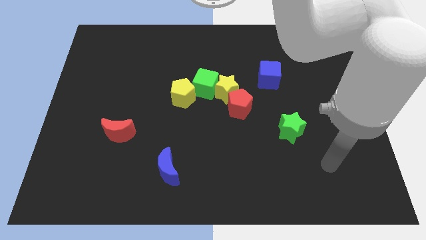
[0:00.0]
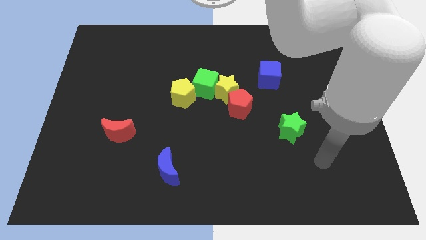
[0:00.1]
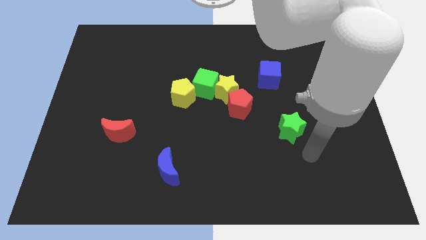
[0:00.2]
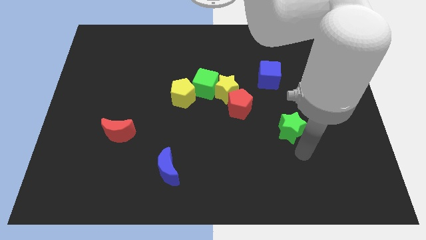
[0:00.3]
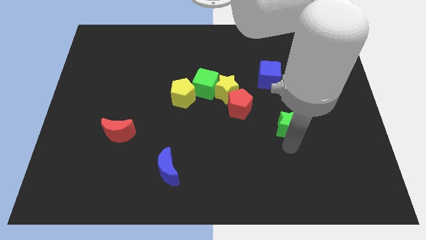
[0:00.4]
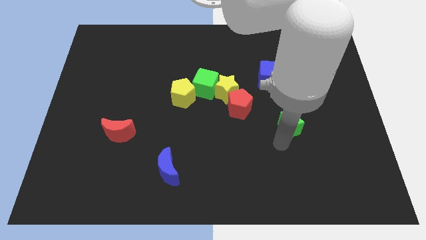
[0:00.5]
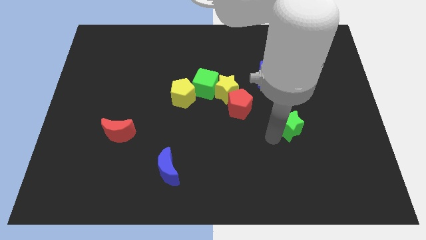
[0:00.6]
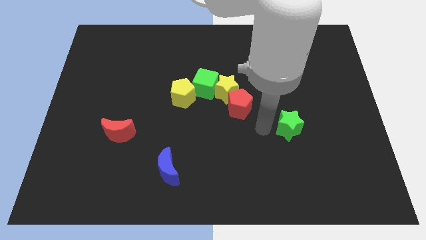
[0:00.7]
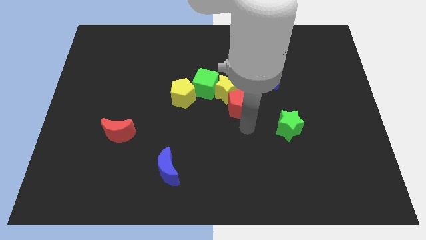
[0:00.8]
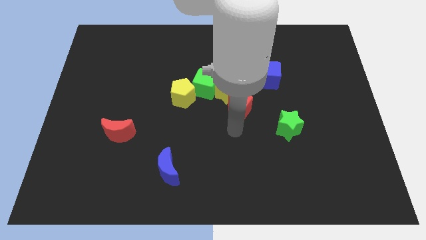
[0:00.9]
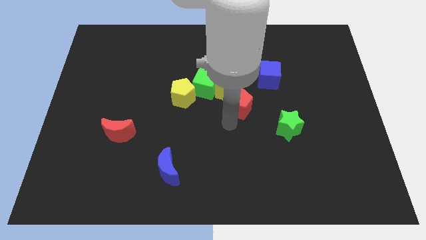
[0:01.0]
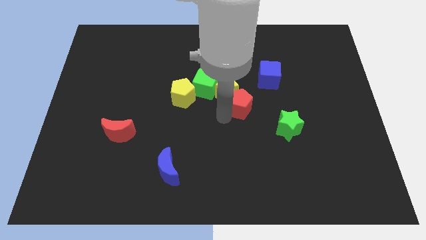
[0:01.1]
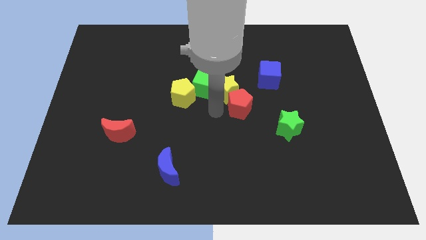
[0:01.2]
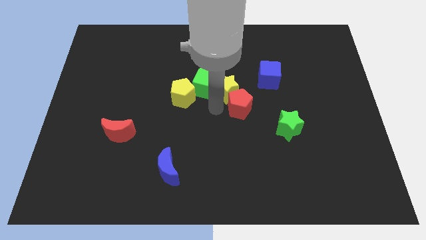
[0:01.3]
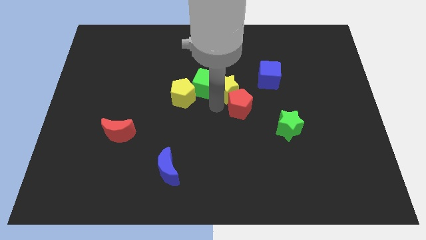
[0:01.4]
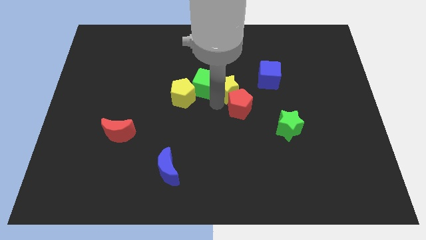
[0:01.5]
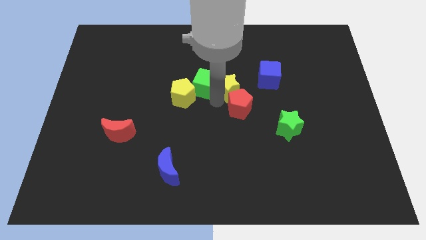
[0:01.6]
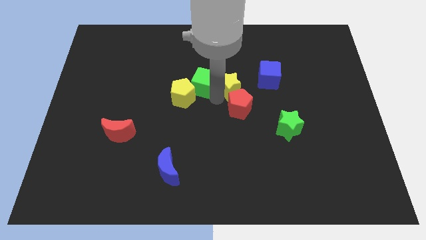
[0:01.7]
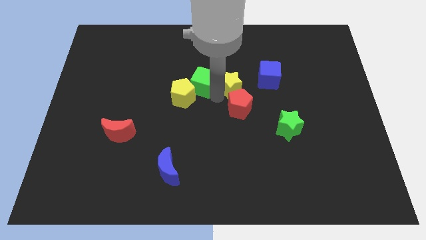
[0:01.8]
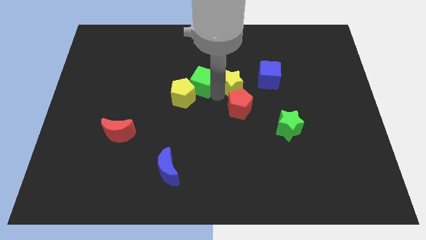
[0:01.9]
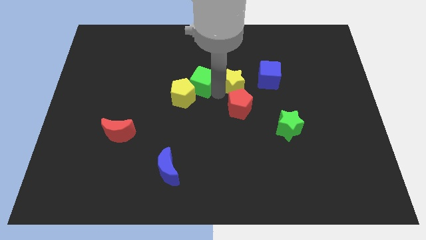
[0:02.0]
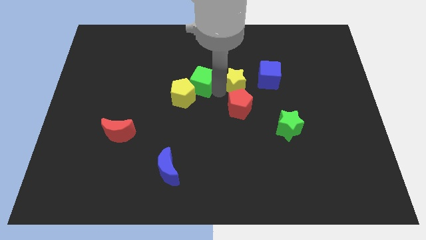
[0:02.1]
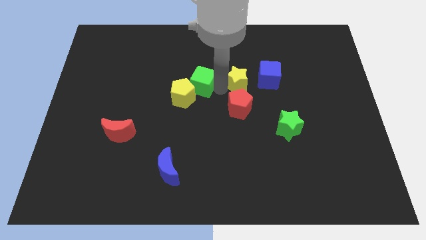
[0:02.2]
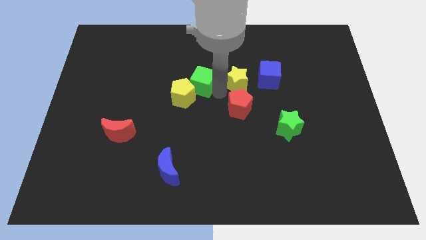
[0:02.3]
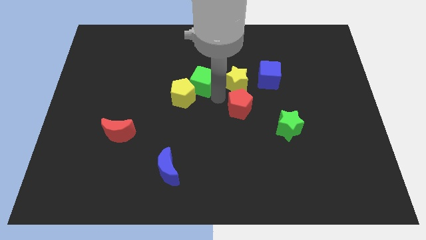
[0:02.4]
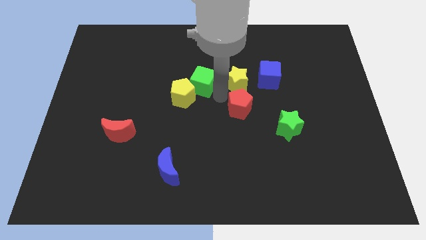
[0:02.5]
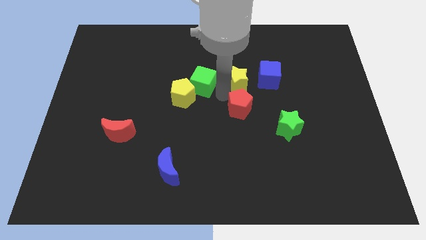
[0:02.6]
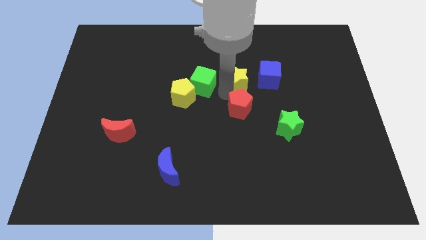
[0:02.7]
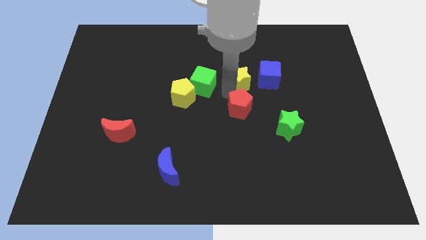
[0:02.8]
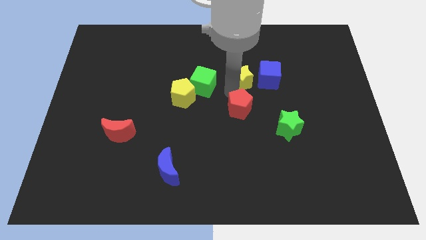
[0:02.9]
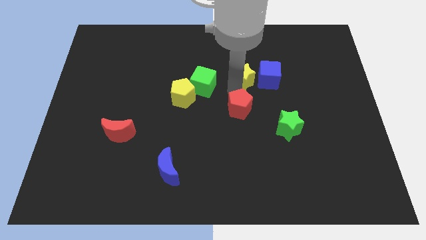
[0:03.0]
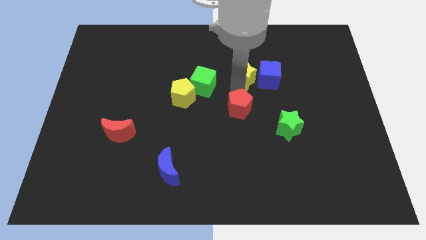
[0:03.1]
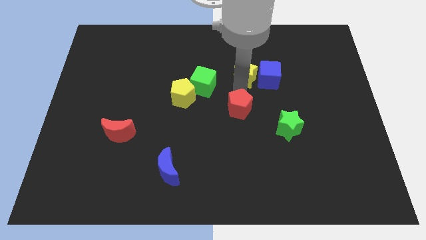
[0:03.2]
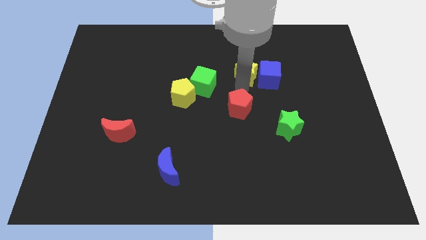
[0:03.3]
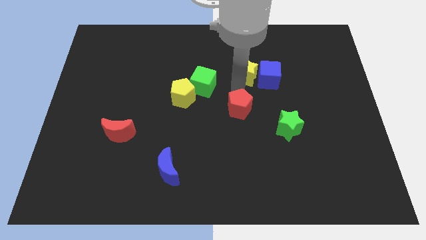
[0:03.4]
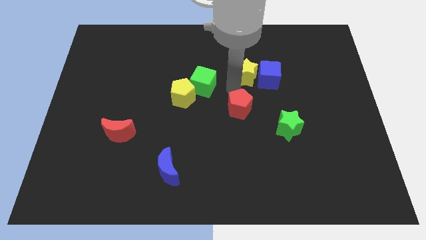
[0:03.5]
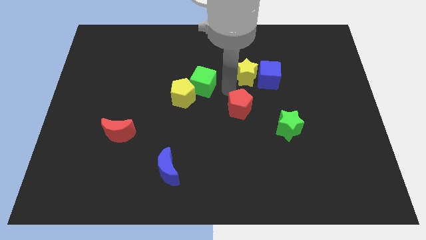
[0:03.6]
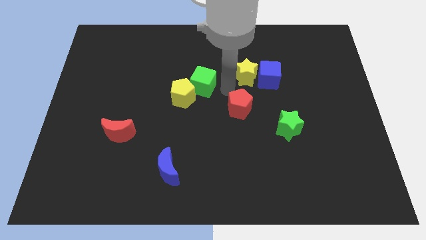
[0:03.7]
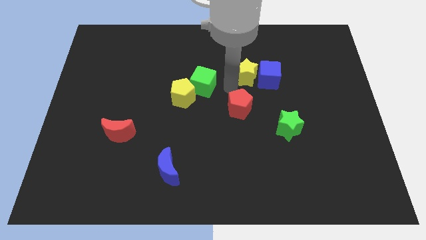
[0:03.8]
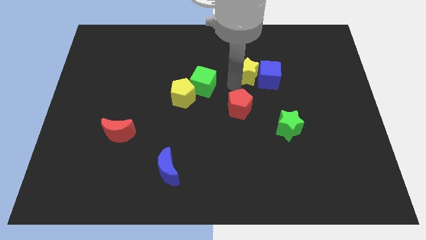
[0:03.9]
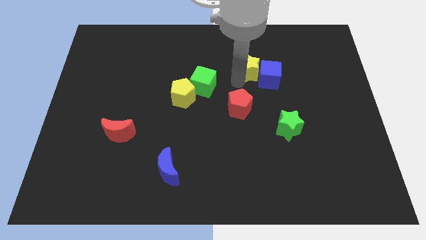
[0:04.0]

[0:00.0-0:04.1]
pull the yellow star apart from the green cube and red pentagon

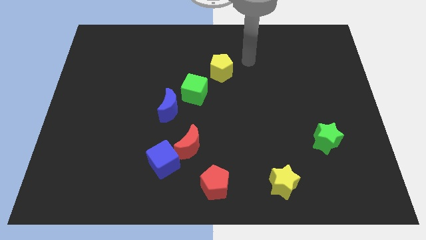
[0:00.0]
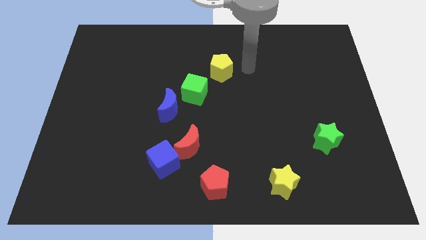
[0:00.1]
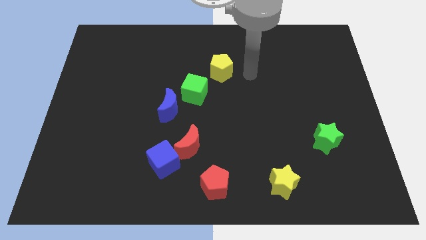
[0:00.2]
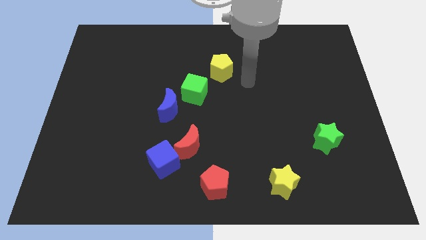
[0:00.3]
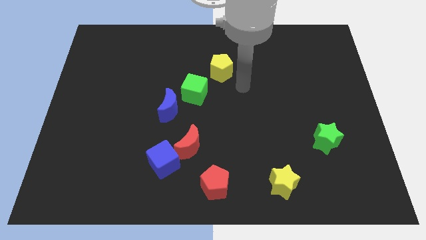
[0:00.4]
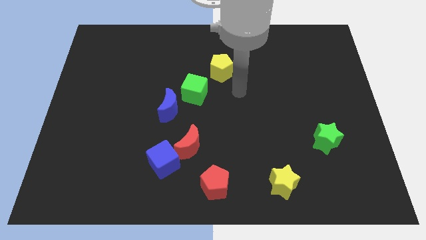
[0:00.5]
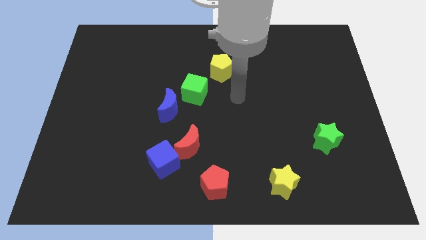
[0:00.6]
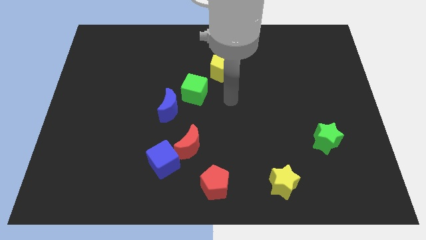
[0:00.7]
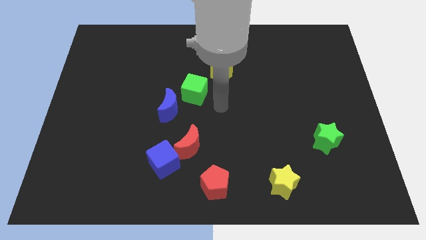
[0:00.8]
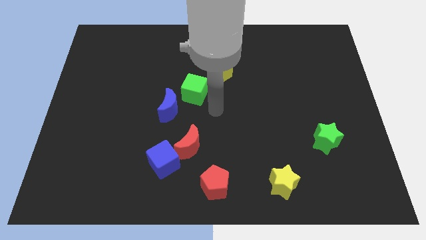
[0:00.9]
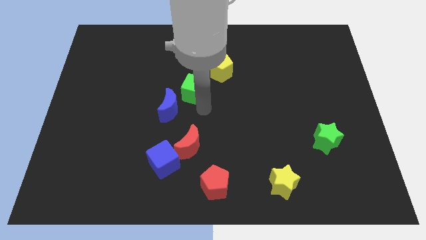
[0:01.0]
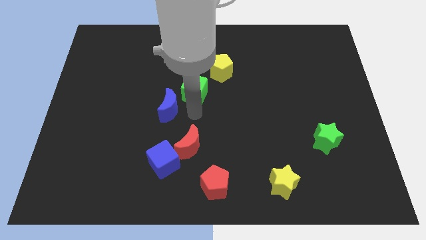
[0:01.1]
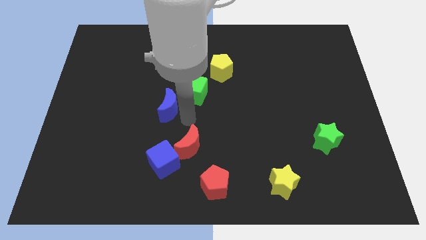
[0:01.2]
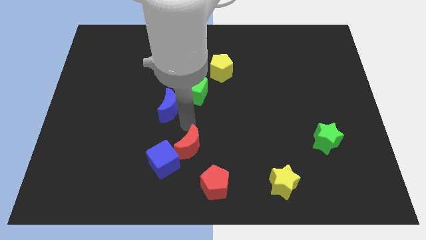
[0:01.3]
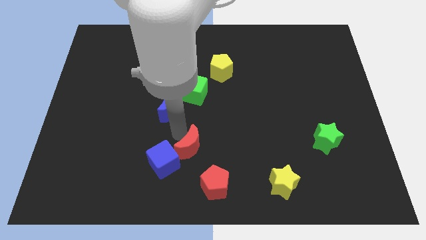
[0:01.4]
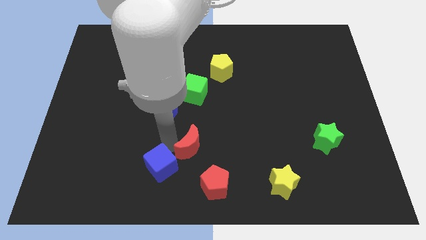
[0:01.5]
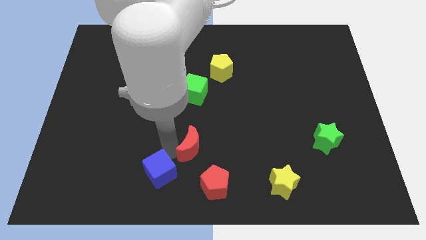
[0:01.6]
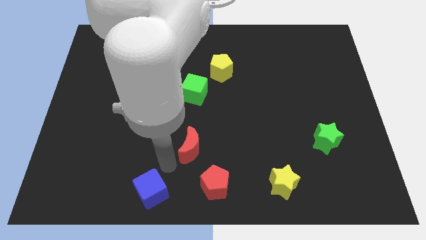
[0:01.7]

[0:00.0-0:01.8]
separate the red moon from the blue cube

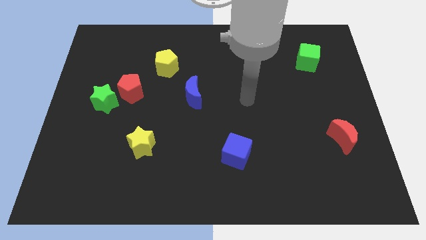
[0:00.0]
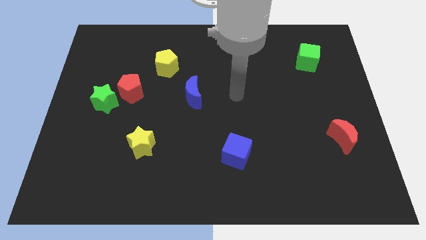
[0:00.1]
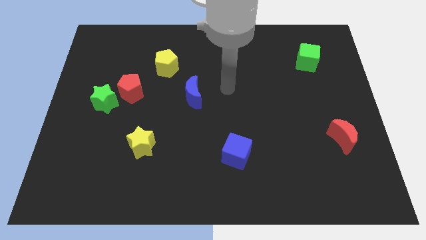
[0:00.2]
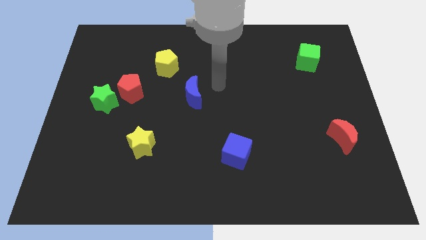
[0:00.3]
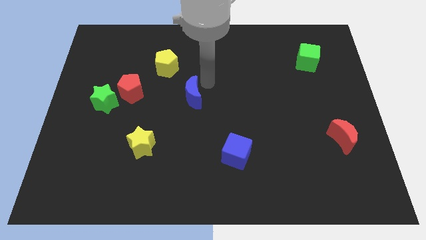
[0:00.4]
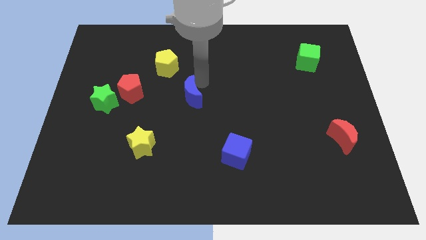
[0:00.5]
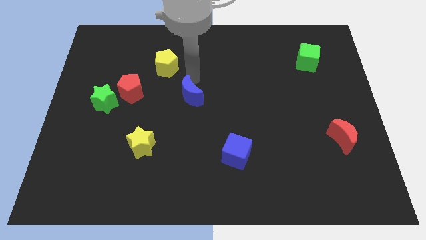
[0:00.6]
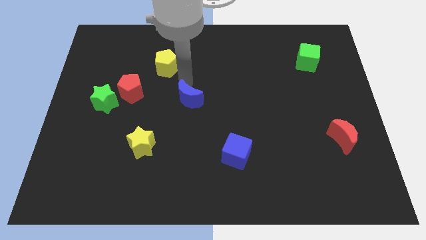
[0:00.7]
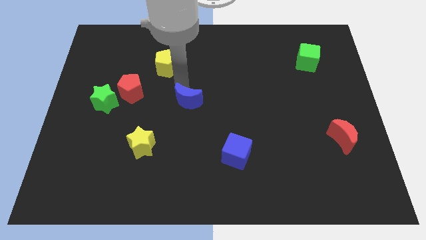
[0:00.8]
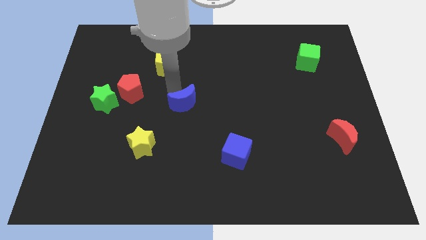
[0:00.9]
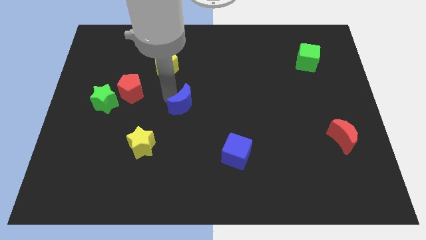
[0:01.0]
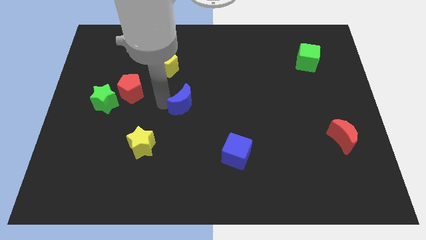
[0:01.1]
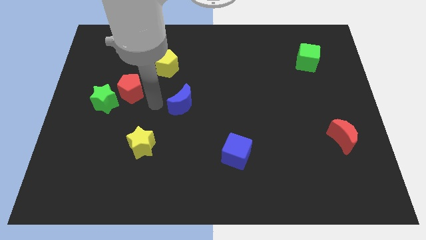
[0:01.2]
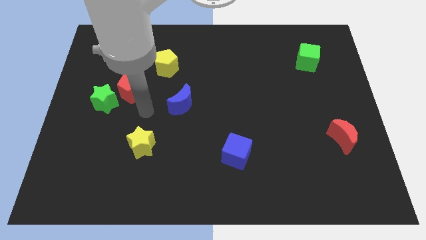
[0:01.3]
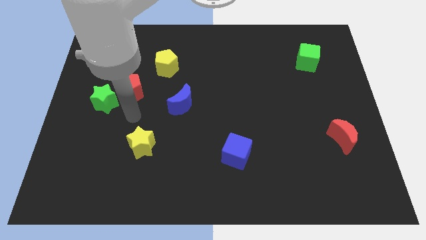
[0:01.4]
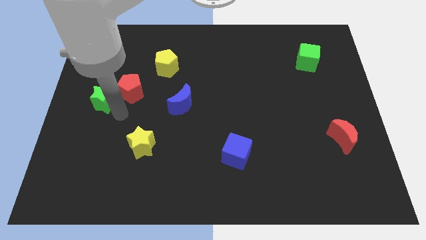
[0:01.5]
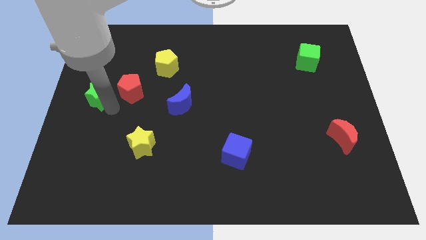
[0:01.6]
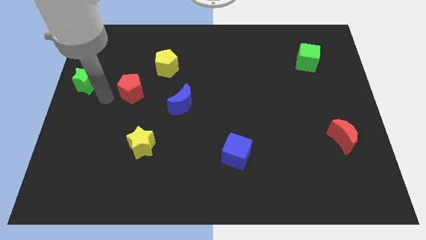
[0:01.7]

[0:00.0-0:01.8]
pull the red pentagon apart from the green star

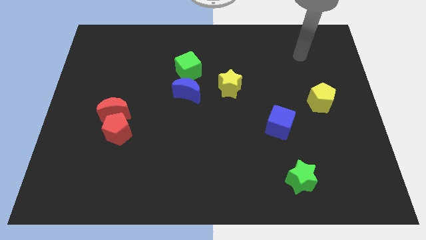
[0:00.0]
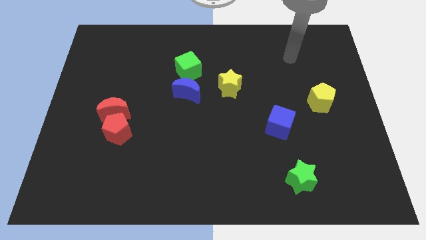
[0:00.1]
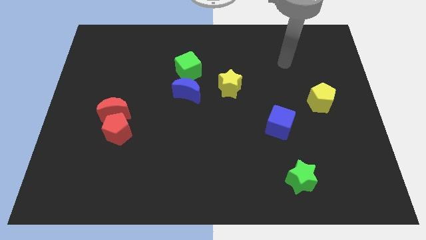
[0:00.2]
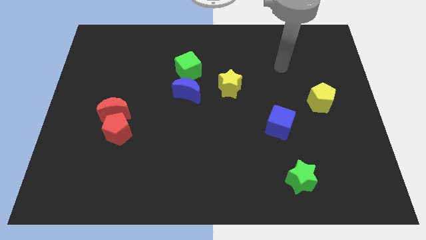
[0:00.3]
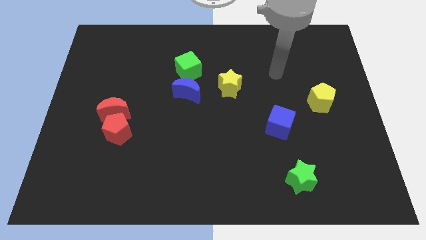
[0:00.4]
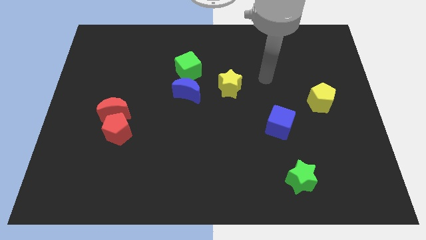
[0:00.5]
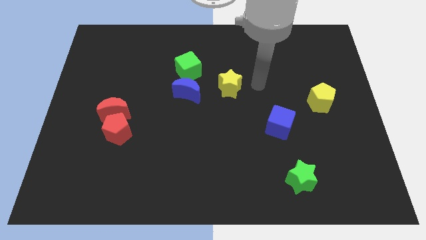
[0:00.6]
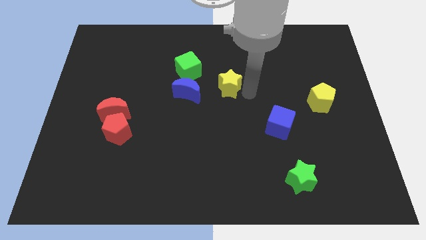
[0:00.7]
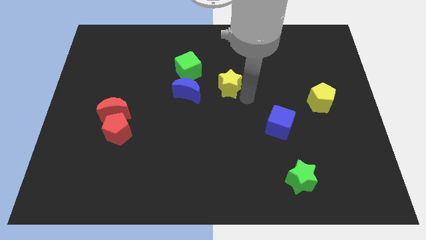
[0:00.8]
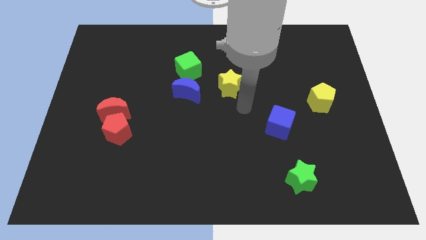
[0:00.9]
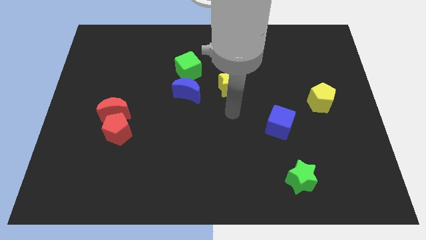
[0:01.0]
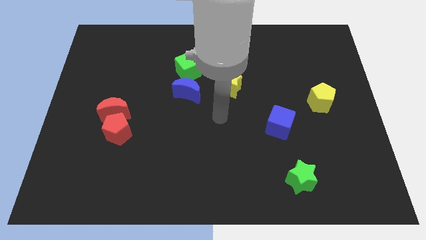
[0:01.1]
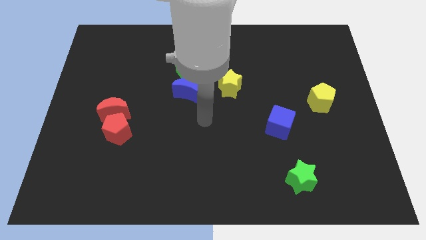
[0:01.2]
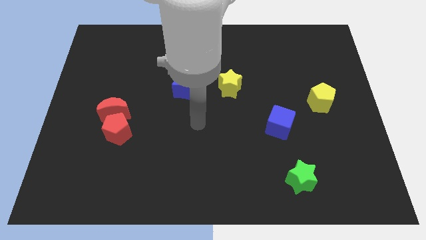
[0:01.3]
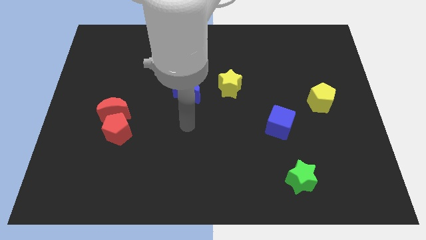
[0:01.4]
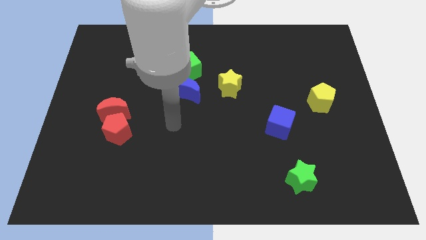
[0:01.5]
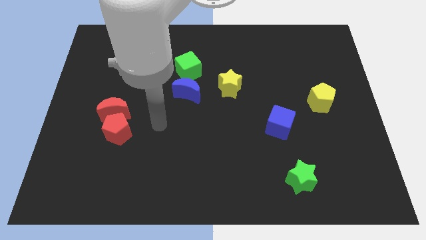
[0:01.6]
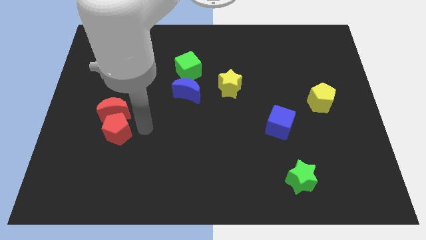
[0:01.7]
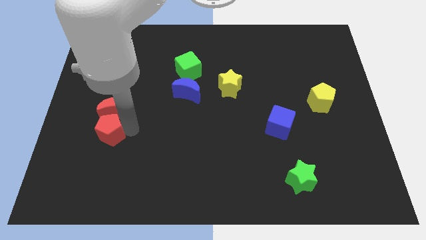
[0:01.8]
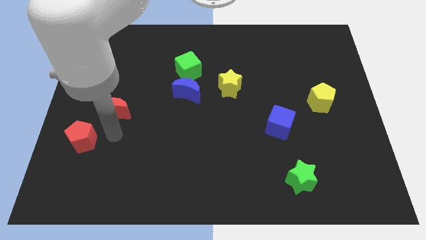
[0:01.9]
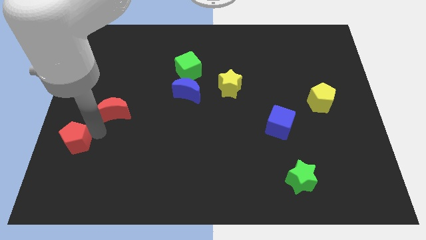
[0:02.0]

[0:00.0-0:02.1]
move the red moon away from the red pentagon
